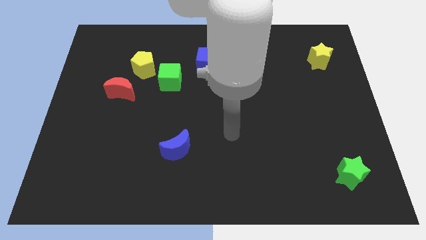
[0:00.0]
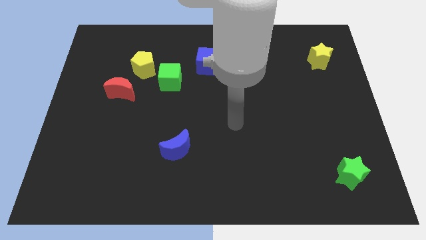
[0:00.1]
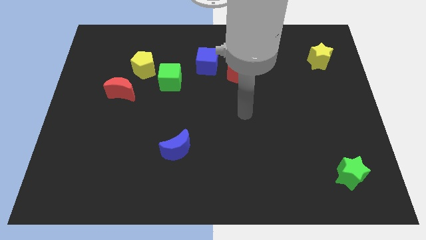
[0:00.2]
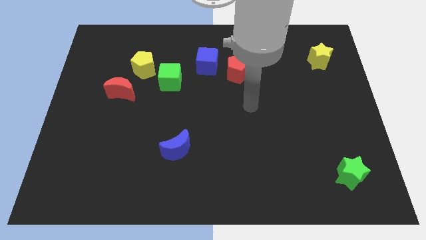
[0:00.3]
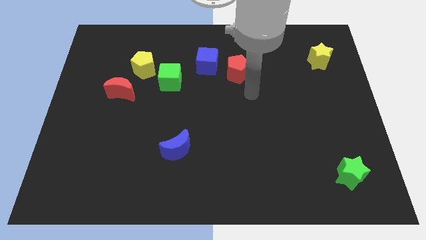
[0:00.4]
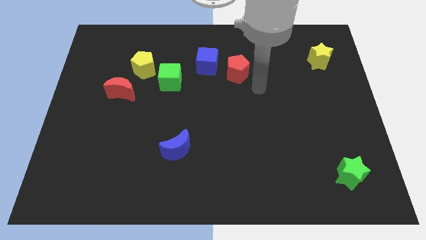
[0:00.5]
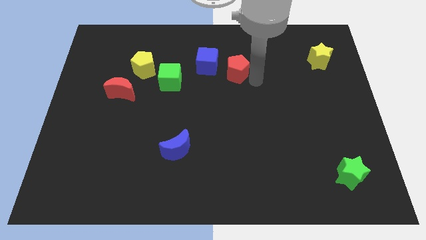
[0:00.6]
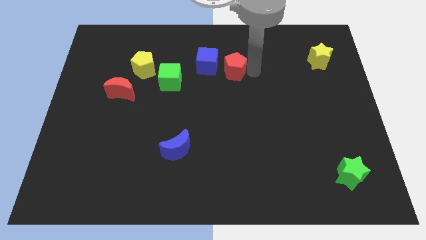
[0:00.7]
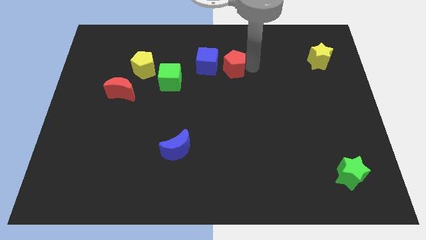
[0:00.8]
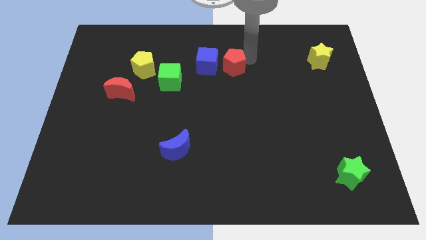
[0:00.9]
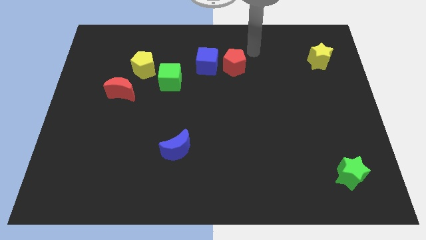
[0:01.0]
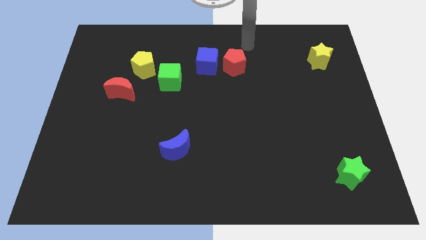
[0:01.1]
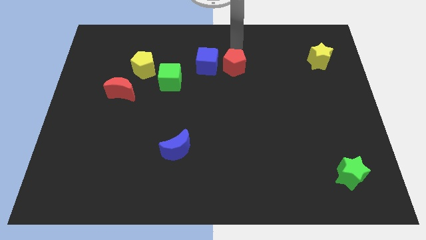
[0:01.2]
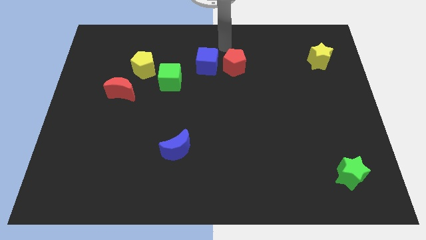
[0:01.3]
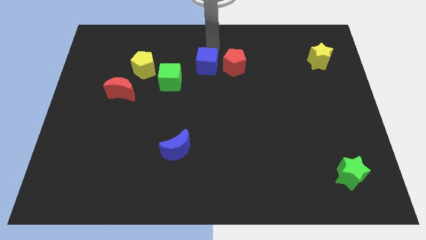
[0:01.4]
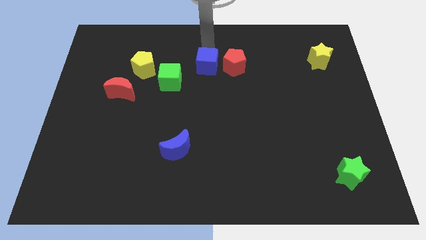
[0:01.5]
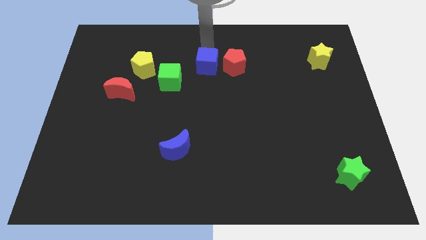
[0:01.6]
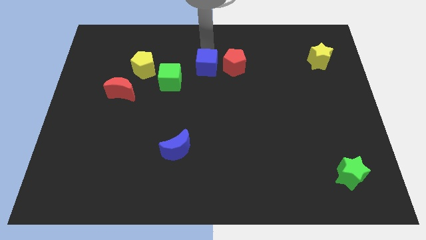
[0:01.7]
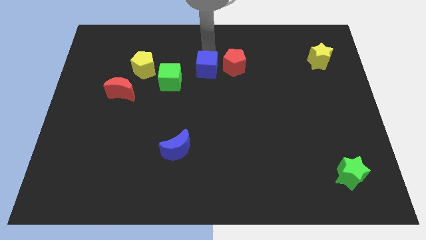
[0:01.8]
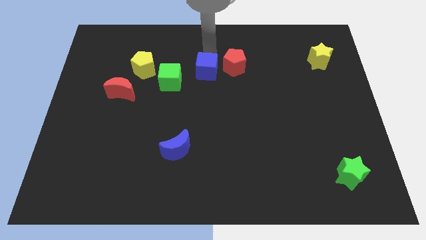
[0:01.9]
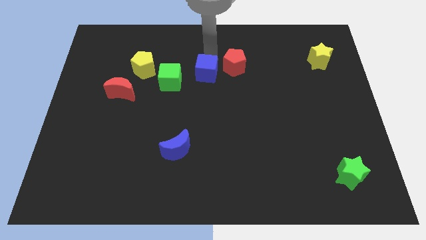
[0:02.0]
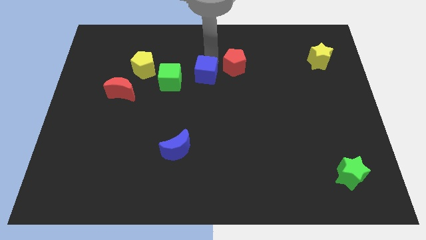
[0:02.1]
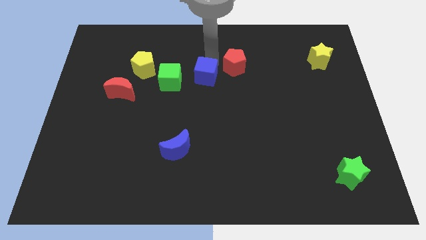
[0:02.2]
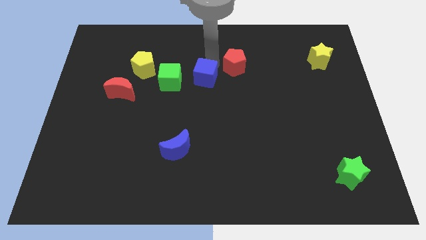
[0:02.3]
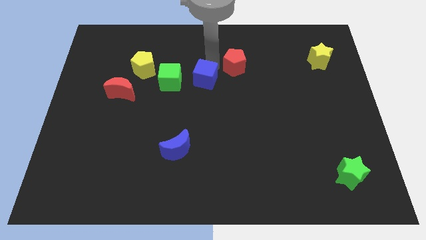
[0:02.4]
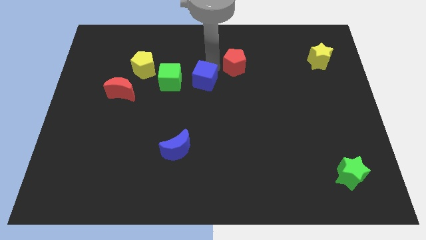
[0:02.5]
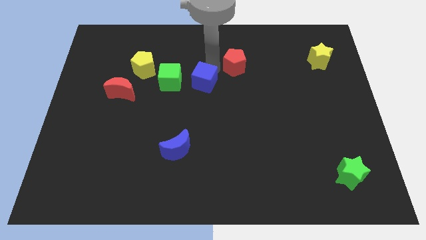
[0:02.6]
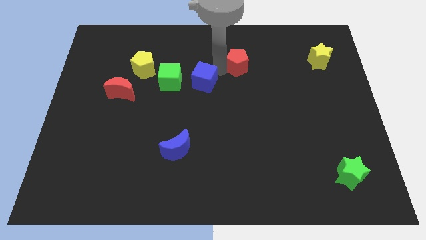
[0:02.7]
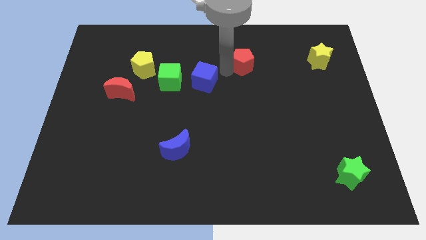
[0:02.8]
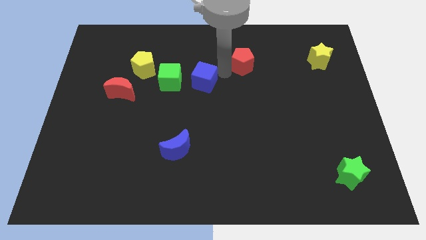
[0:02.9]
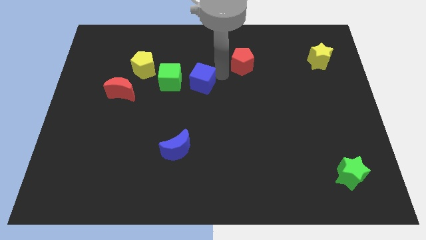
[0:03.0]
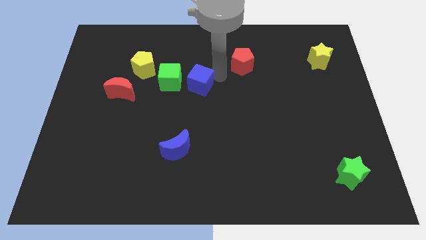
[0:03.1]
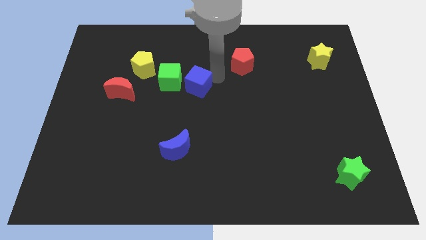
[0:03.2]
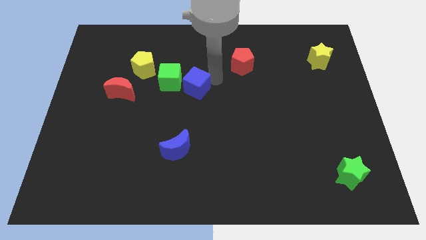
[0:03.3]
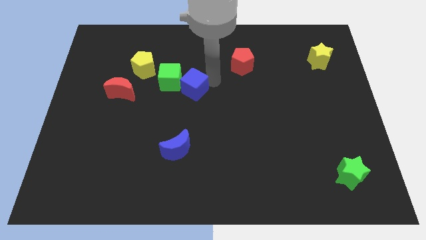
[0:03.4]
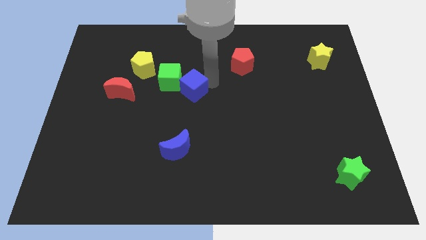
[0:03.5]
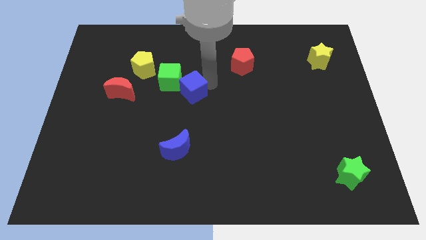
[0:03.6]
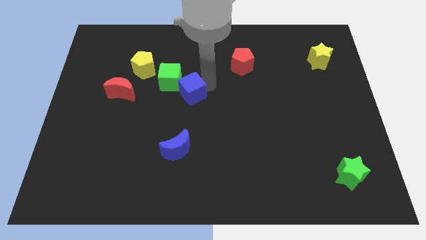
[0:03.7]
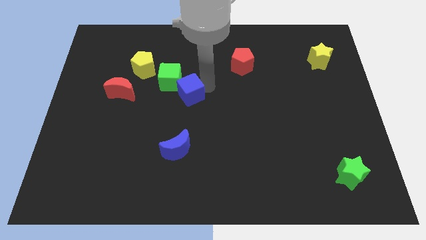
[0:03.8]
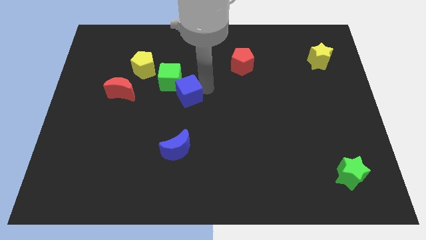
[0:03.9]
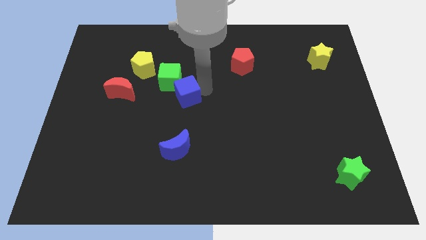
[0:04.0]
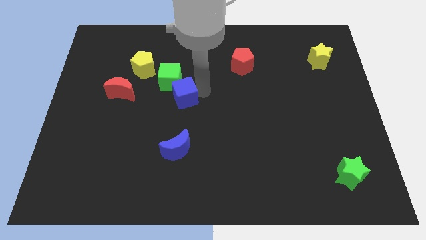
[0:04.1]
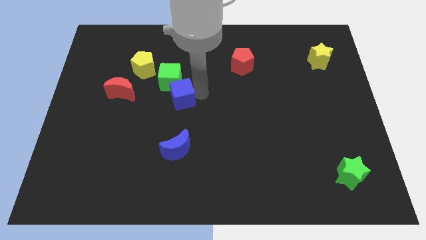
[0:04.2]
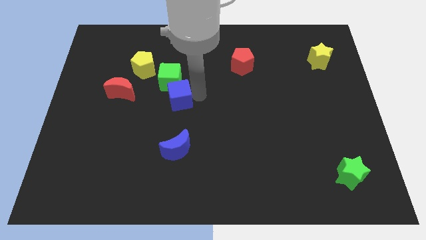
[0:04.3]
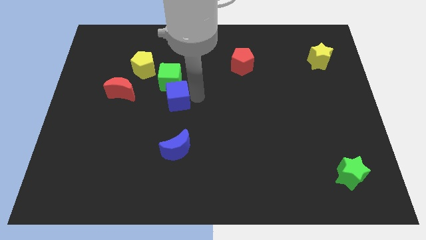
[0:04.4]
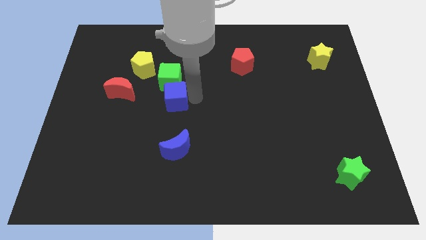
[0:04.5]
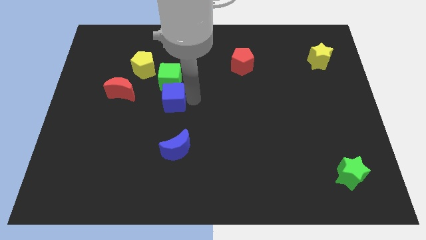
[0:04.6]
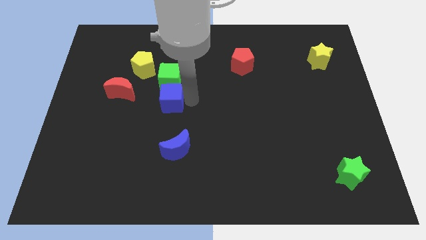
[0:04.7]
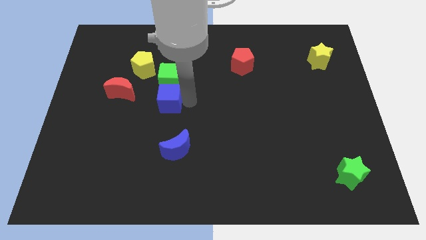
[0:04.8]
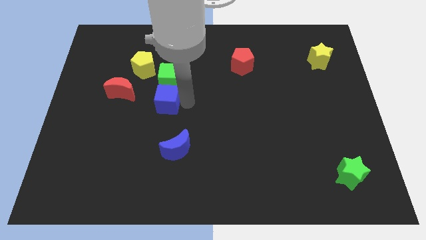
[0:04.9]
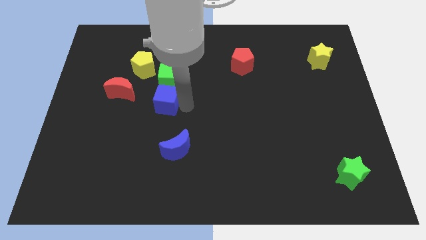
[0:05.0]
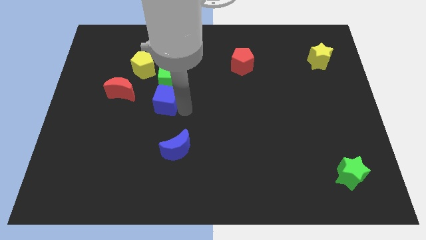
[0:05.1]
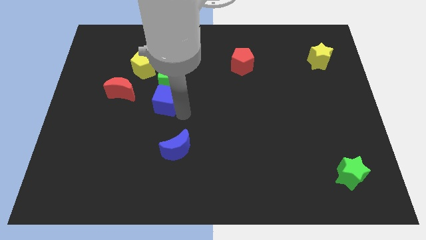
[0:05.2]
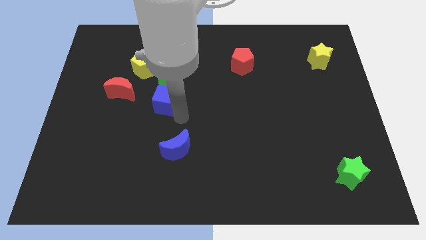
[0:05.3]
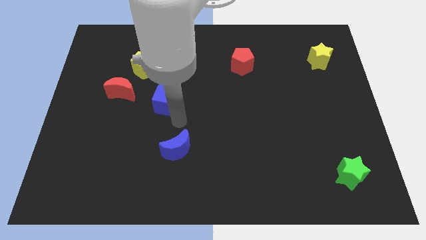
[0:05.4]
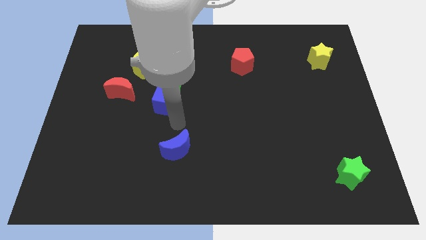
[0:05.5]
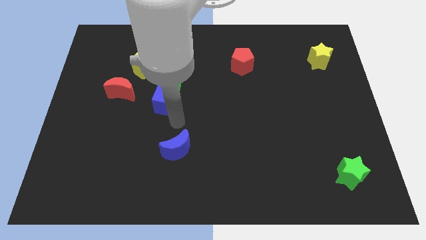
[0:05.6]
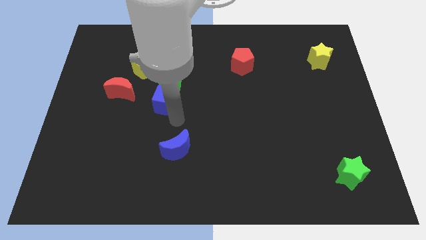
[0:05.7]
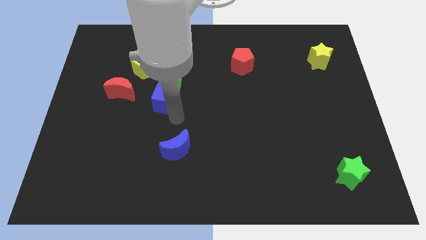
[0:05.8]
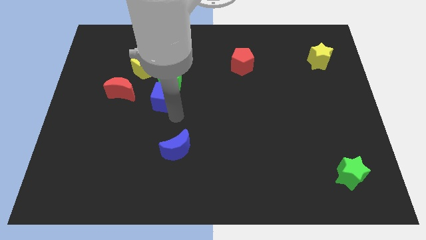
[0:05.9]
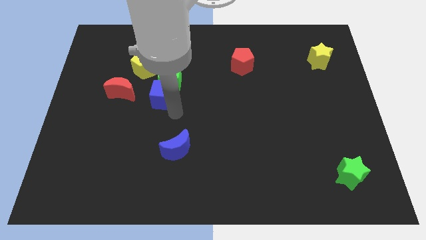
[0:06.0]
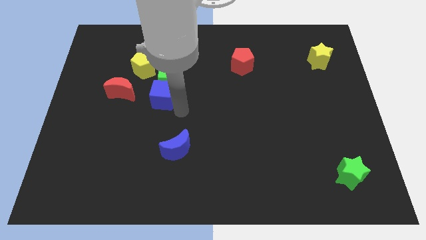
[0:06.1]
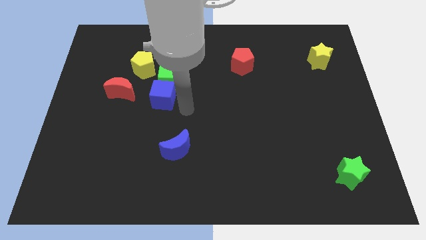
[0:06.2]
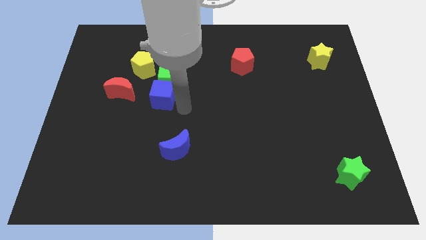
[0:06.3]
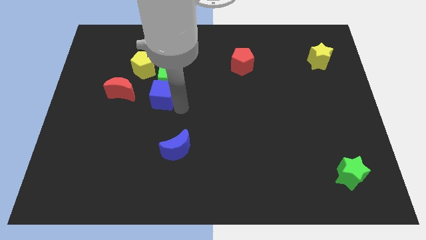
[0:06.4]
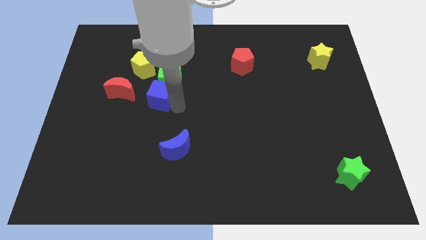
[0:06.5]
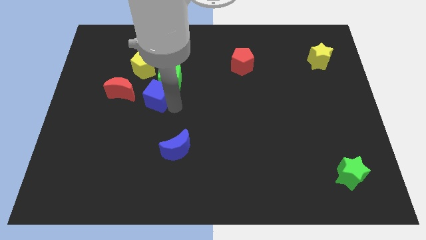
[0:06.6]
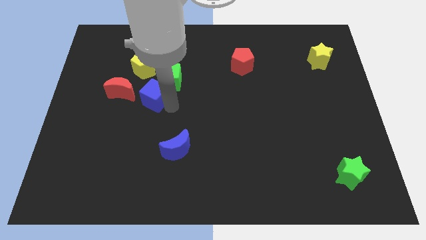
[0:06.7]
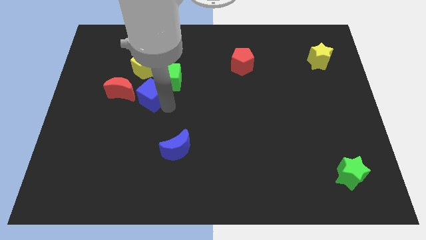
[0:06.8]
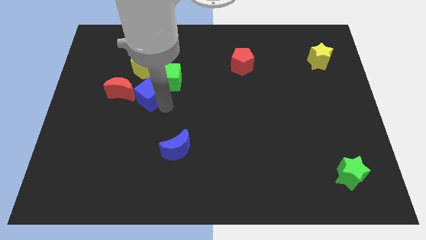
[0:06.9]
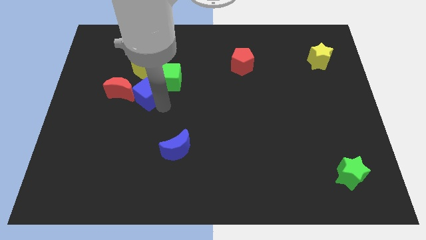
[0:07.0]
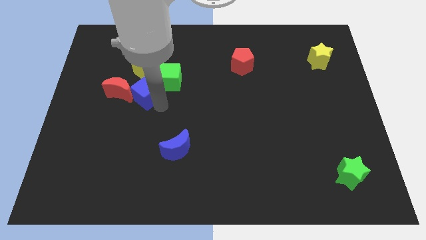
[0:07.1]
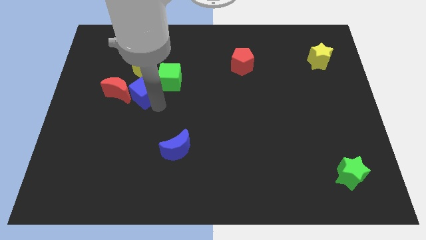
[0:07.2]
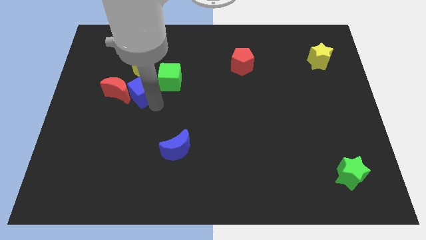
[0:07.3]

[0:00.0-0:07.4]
push the blue cube close to the red moon

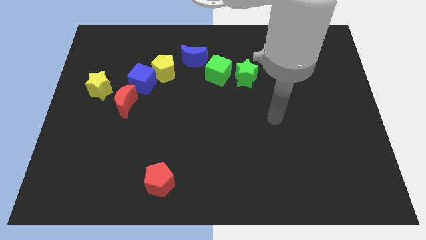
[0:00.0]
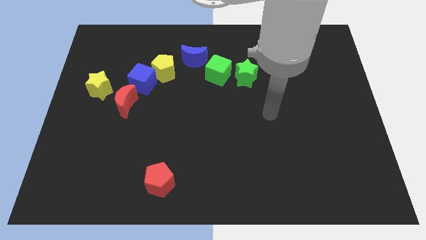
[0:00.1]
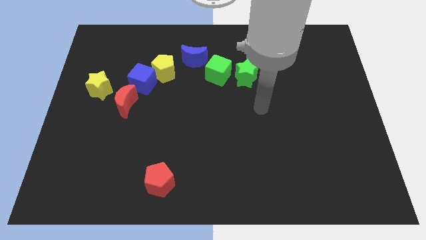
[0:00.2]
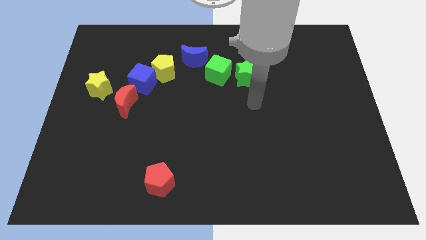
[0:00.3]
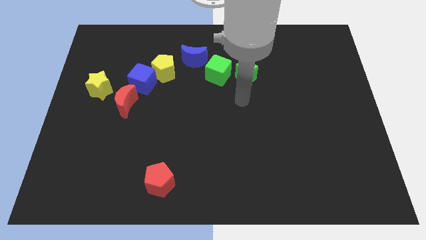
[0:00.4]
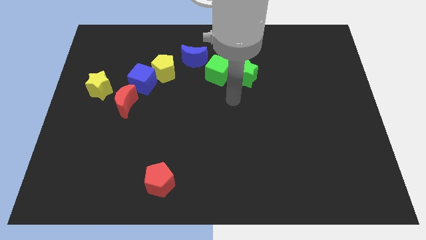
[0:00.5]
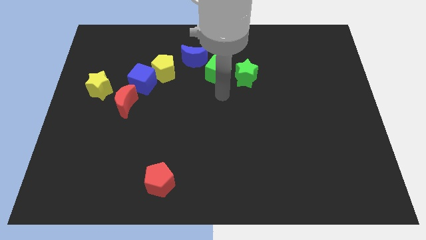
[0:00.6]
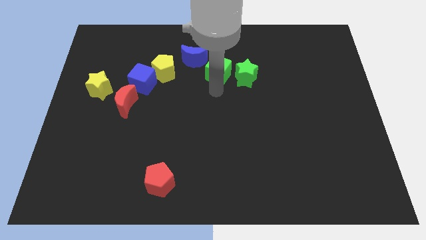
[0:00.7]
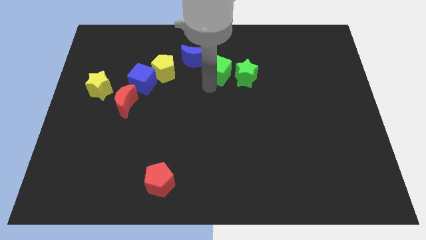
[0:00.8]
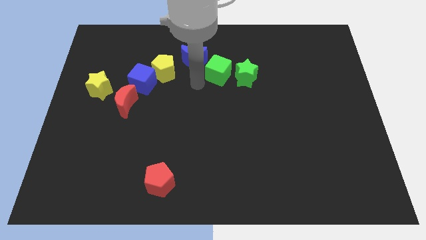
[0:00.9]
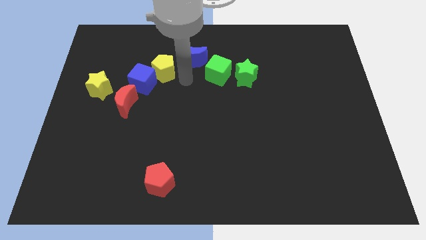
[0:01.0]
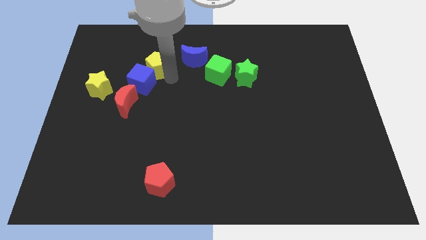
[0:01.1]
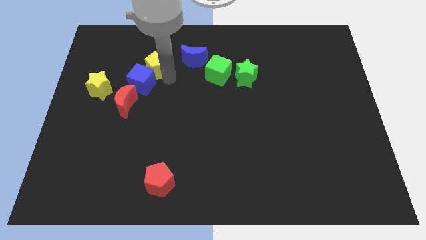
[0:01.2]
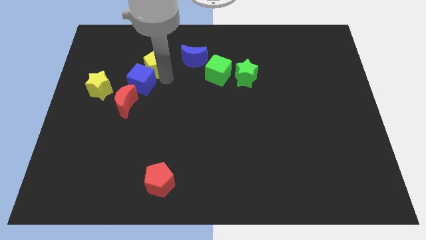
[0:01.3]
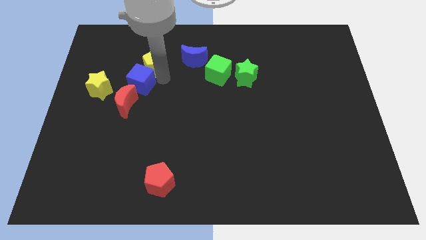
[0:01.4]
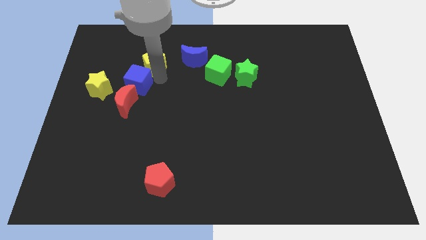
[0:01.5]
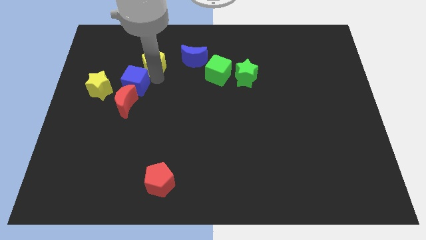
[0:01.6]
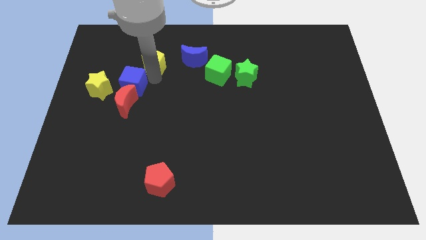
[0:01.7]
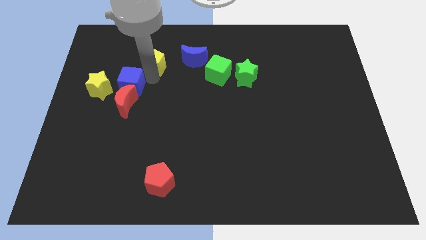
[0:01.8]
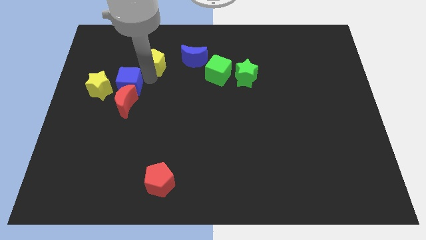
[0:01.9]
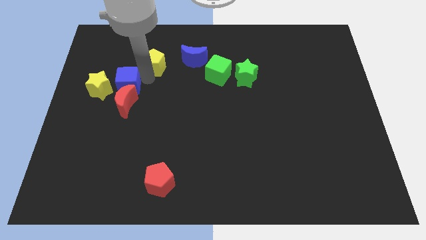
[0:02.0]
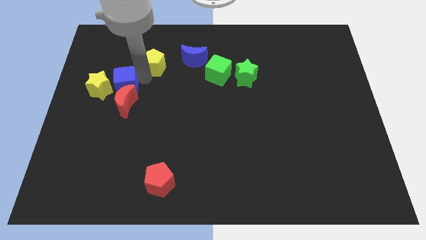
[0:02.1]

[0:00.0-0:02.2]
put the blue cube close to the yellow star
